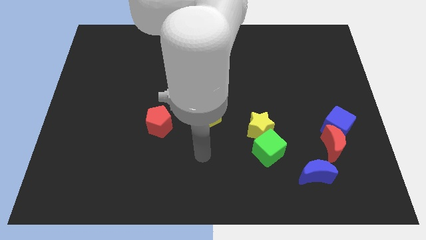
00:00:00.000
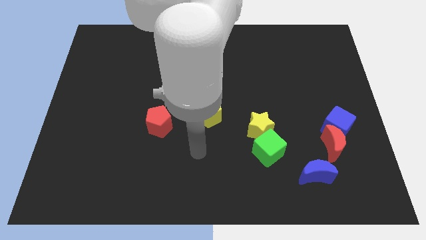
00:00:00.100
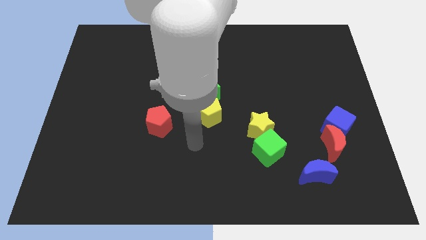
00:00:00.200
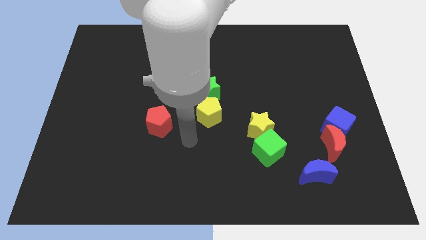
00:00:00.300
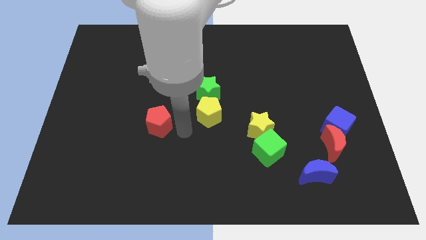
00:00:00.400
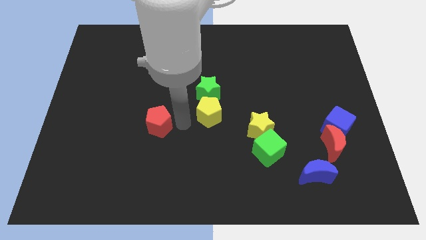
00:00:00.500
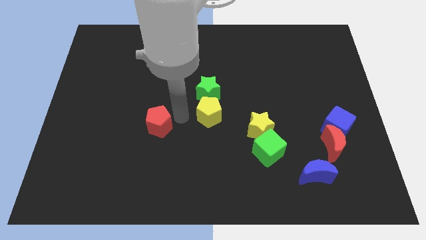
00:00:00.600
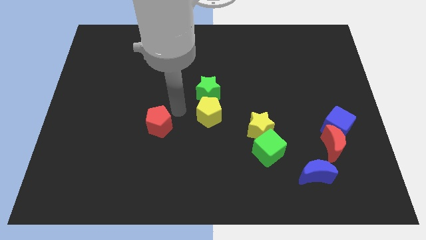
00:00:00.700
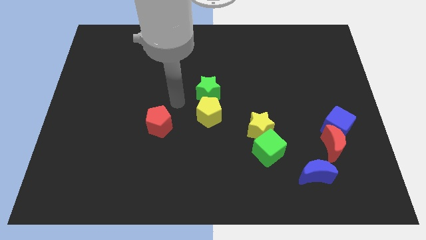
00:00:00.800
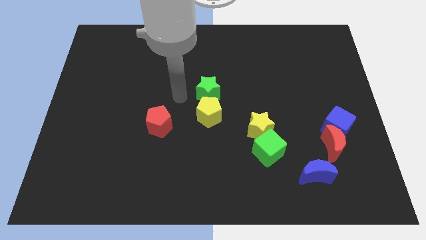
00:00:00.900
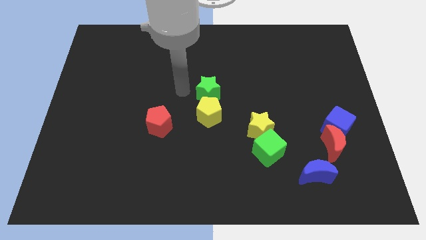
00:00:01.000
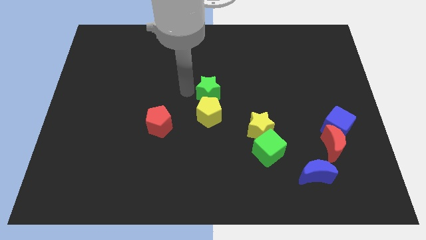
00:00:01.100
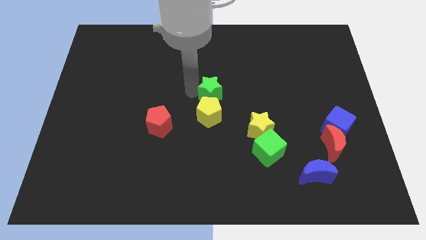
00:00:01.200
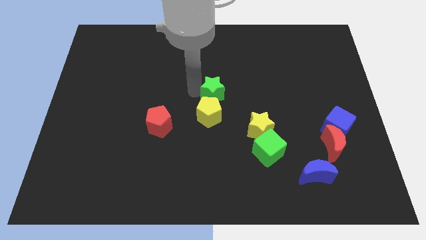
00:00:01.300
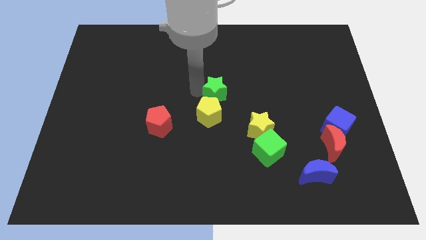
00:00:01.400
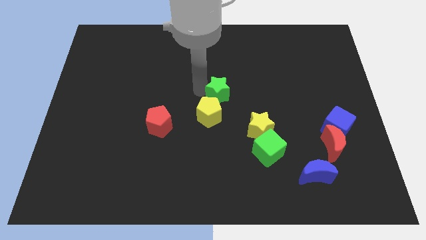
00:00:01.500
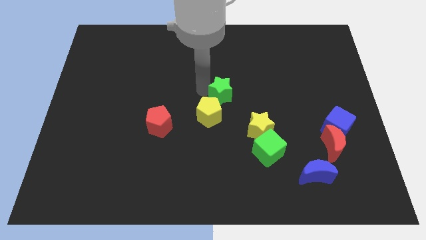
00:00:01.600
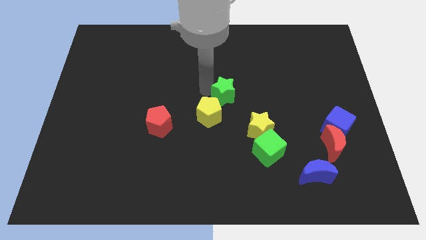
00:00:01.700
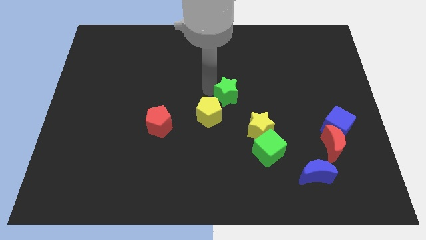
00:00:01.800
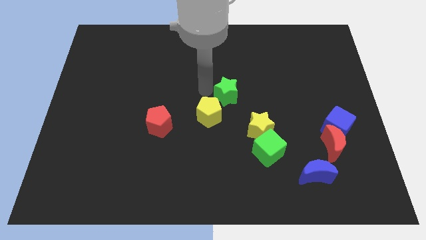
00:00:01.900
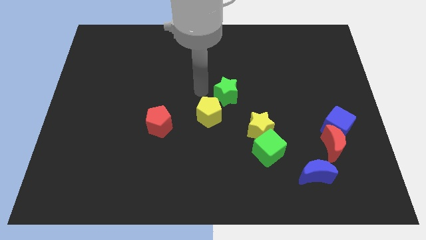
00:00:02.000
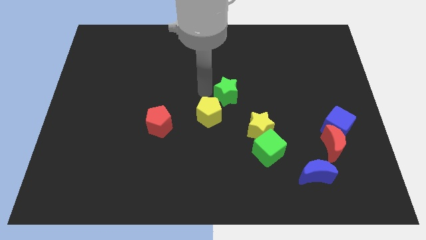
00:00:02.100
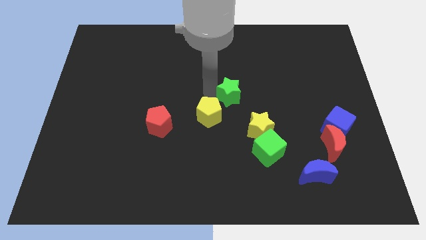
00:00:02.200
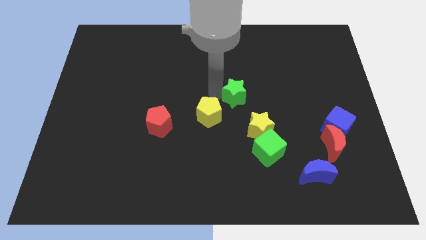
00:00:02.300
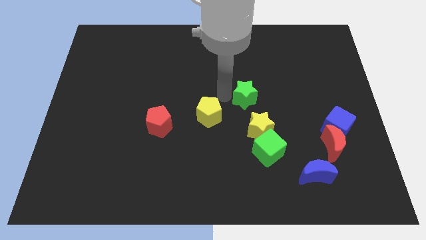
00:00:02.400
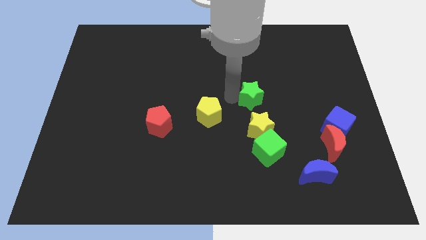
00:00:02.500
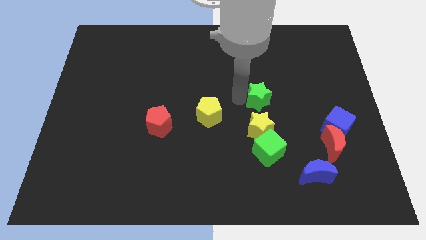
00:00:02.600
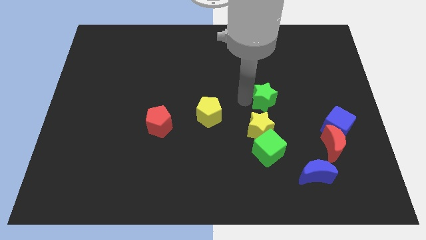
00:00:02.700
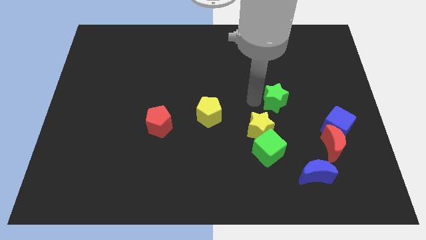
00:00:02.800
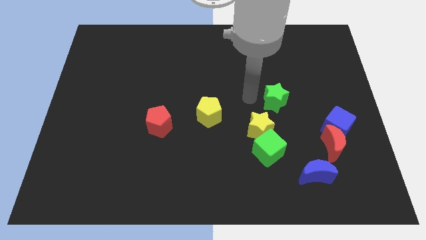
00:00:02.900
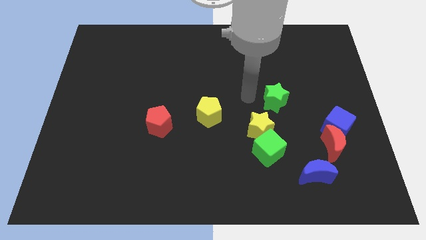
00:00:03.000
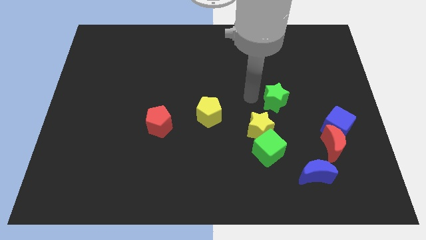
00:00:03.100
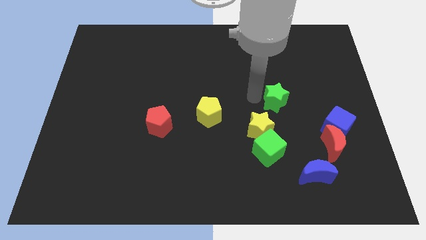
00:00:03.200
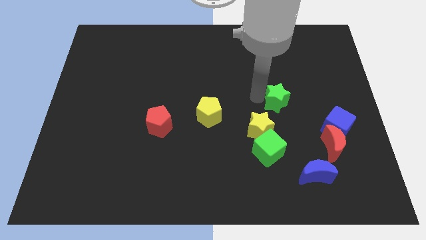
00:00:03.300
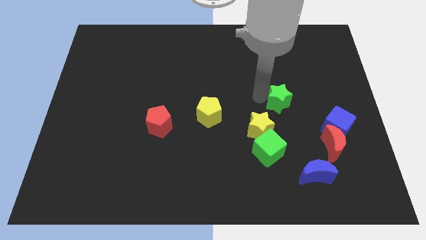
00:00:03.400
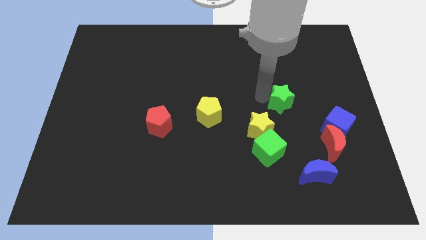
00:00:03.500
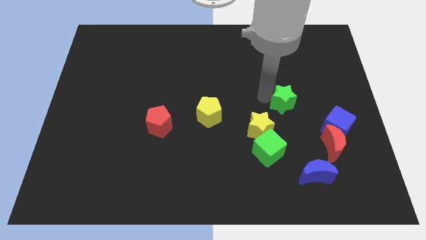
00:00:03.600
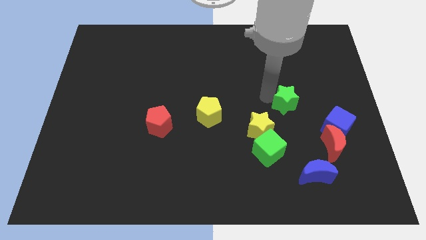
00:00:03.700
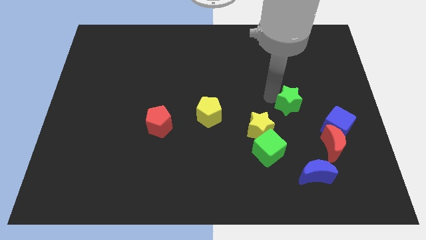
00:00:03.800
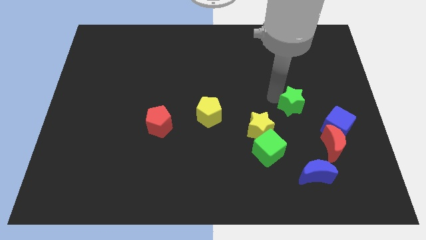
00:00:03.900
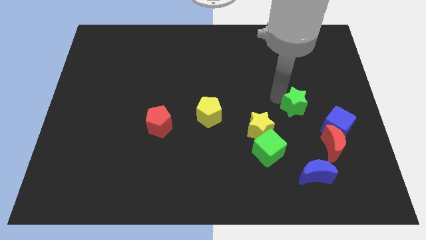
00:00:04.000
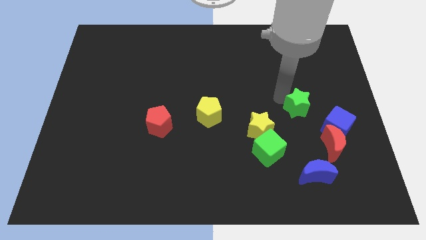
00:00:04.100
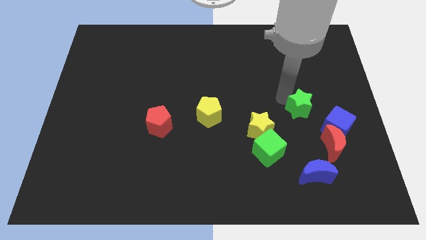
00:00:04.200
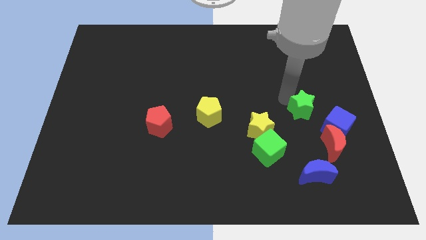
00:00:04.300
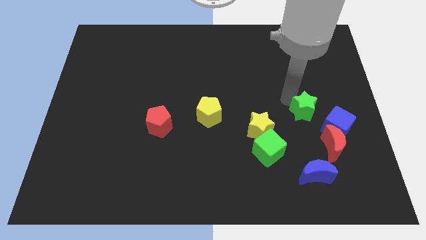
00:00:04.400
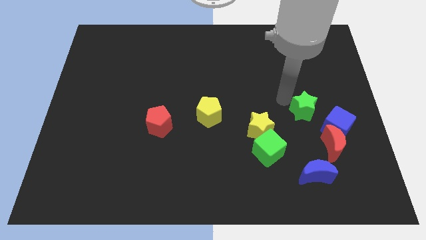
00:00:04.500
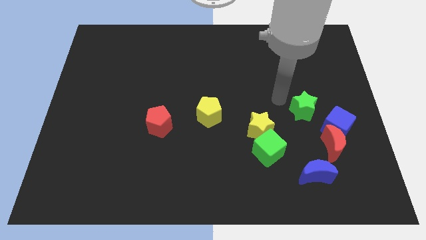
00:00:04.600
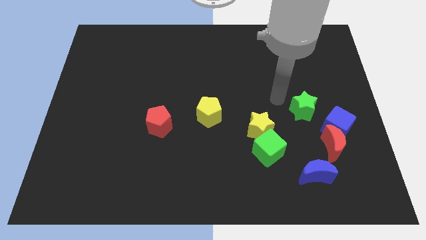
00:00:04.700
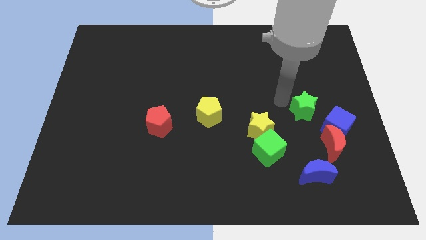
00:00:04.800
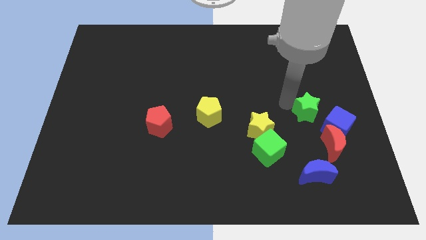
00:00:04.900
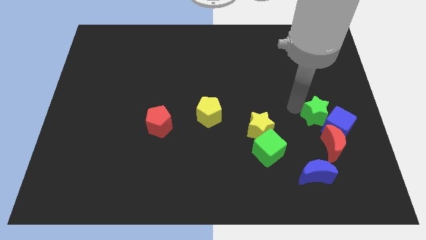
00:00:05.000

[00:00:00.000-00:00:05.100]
push the green star close to the blue cube

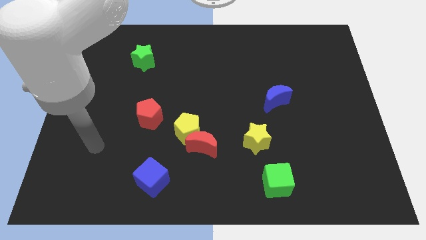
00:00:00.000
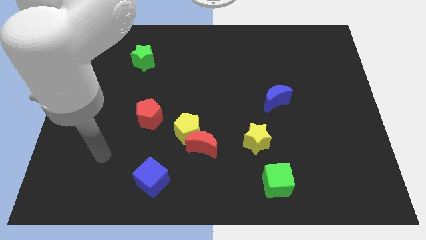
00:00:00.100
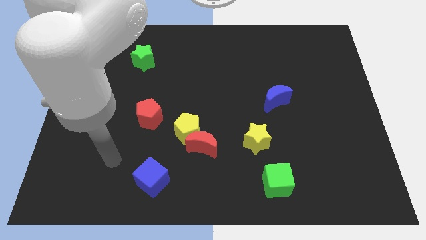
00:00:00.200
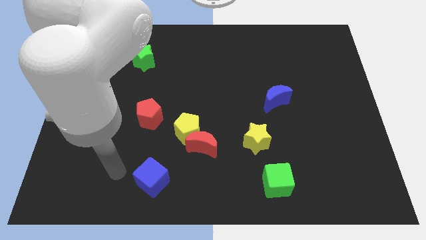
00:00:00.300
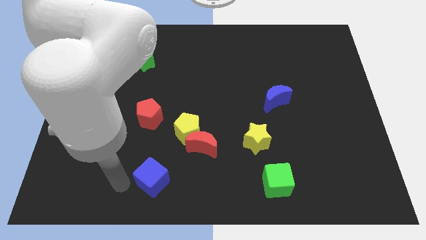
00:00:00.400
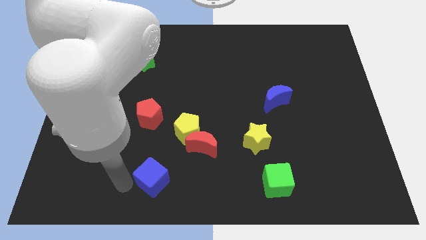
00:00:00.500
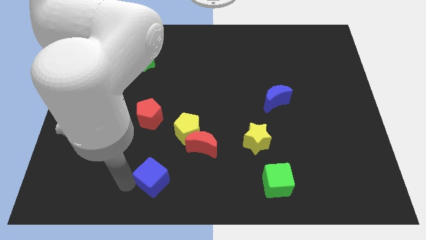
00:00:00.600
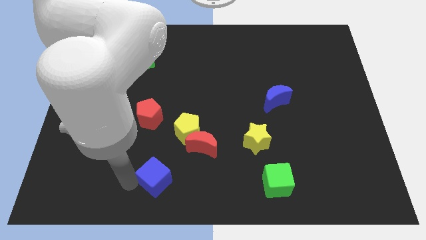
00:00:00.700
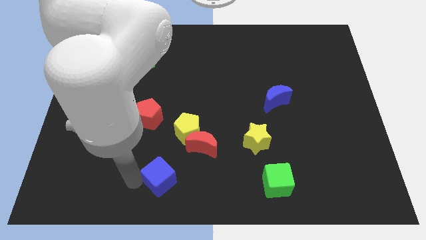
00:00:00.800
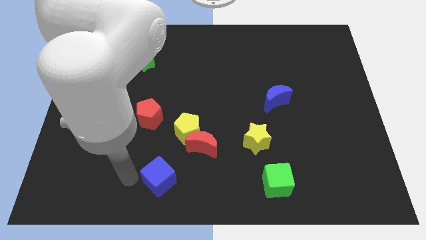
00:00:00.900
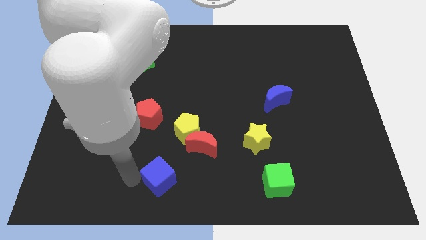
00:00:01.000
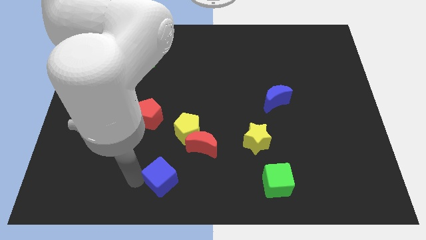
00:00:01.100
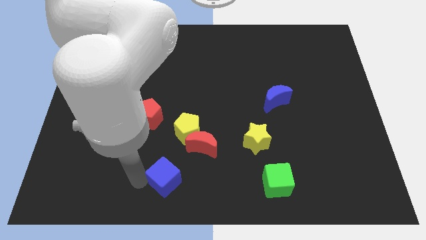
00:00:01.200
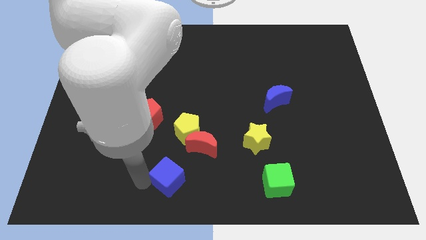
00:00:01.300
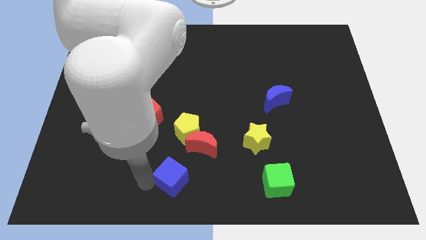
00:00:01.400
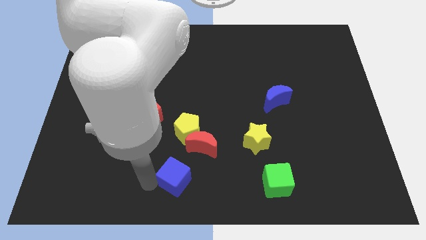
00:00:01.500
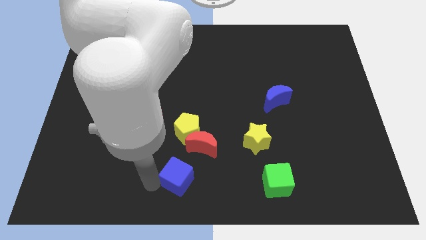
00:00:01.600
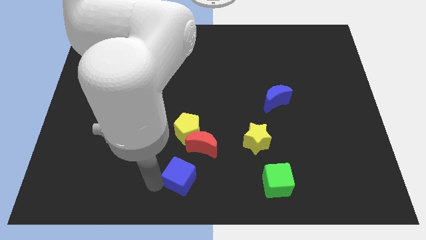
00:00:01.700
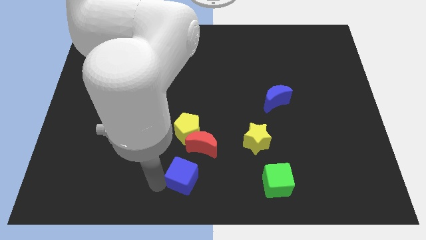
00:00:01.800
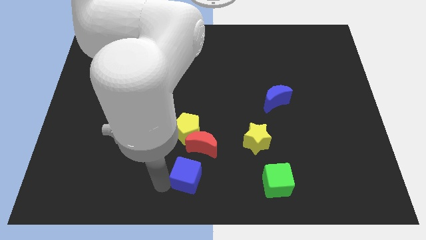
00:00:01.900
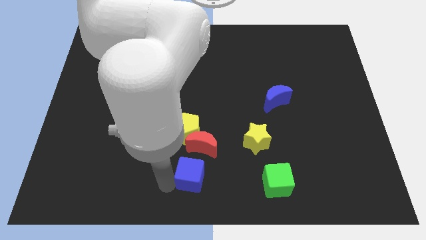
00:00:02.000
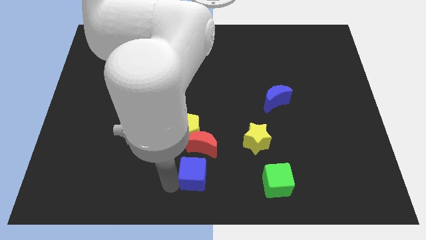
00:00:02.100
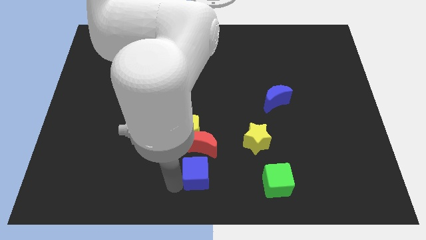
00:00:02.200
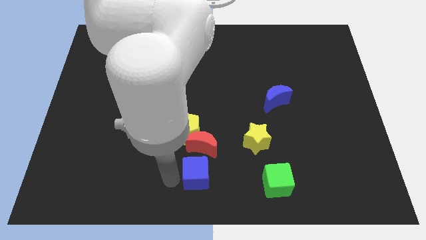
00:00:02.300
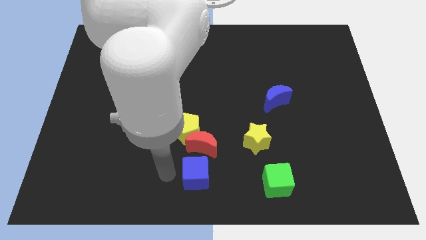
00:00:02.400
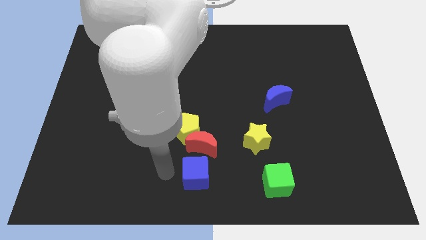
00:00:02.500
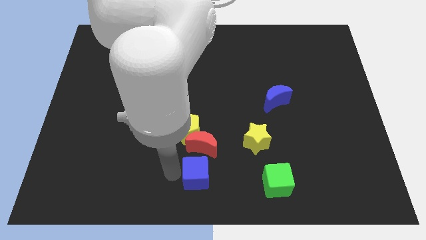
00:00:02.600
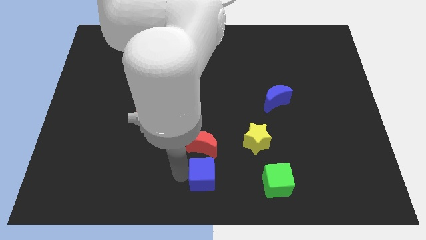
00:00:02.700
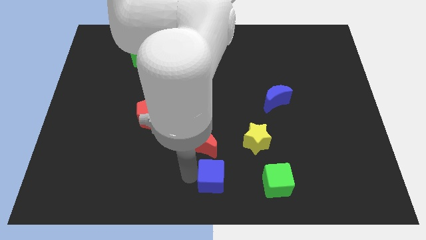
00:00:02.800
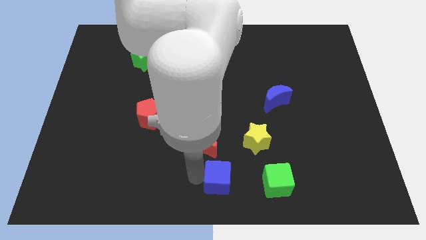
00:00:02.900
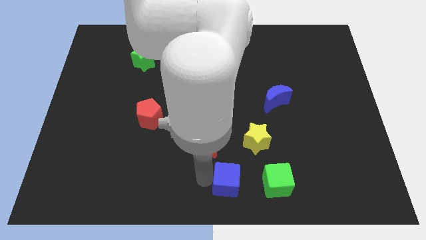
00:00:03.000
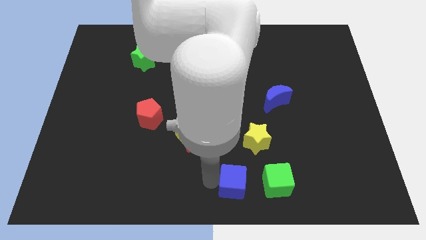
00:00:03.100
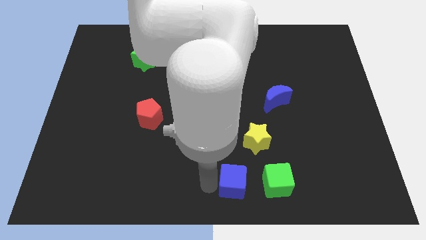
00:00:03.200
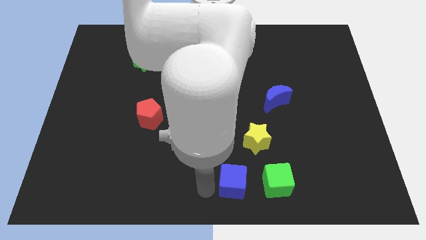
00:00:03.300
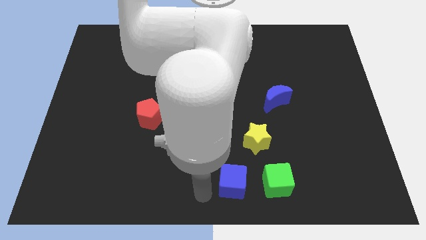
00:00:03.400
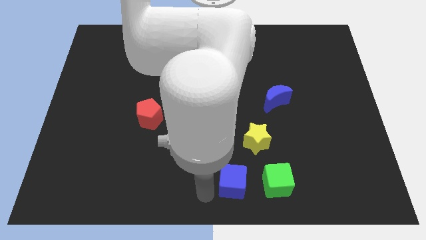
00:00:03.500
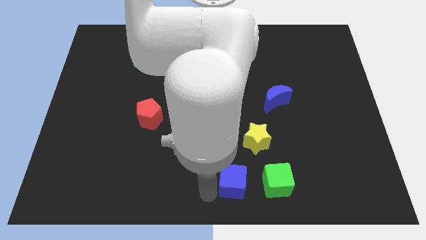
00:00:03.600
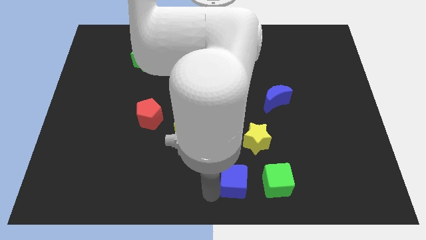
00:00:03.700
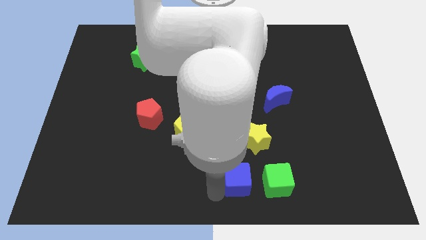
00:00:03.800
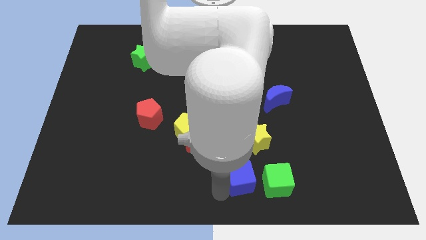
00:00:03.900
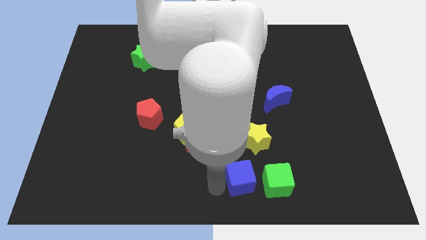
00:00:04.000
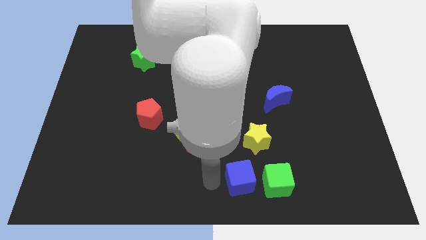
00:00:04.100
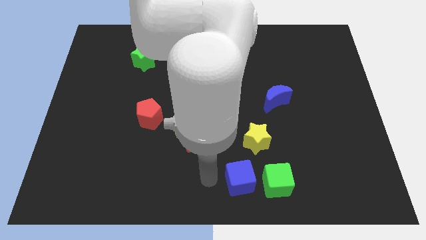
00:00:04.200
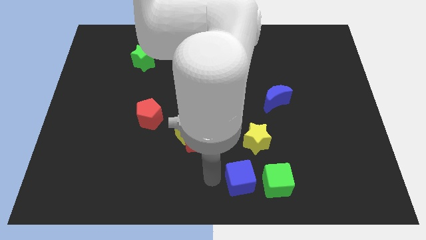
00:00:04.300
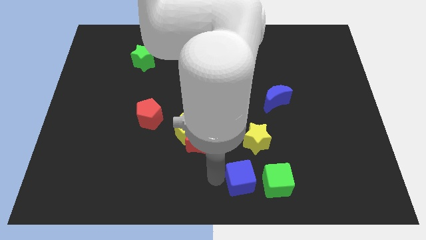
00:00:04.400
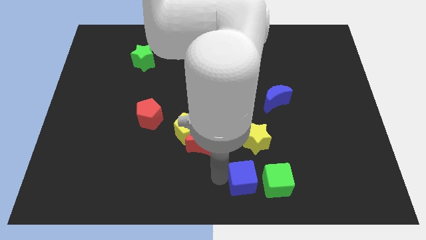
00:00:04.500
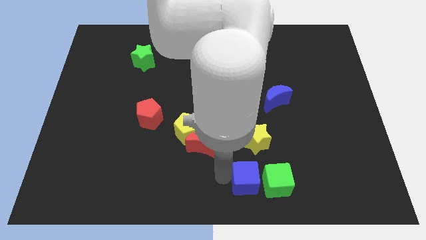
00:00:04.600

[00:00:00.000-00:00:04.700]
put the blue cube to the green cube
